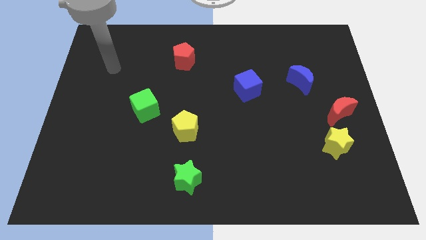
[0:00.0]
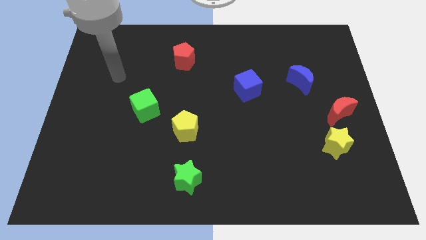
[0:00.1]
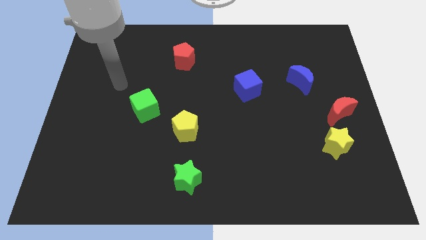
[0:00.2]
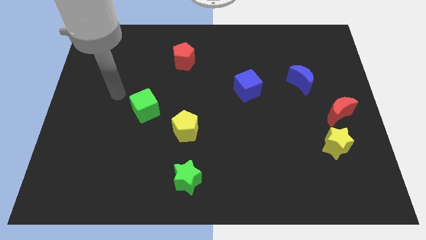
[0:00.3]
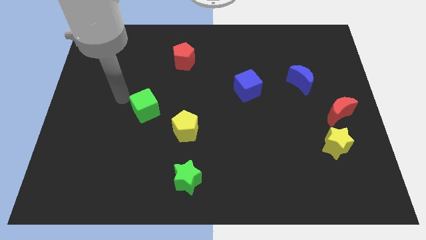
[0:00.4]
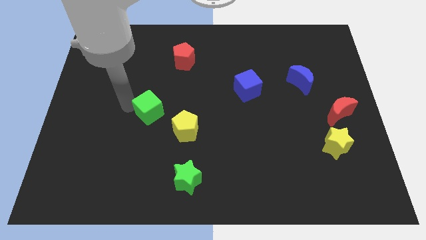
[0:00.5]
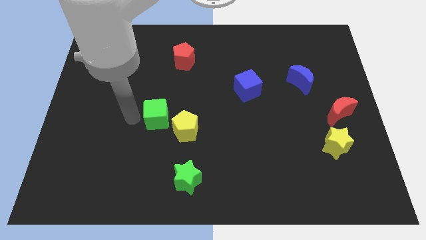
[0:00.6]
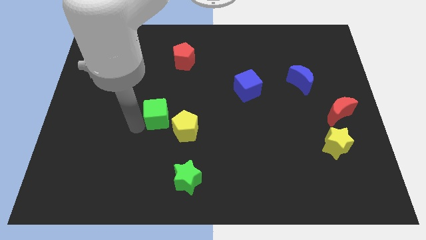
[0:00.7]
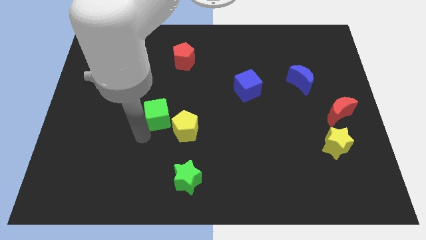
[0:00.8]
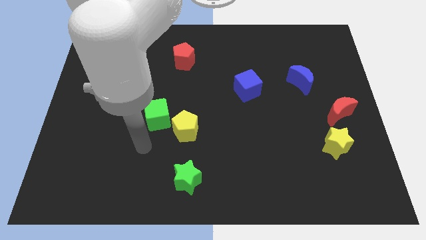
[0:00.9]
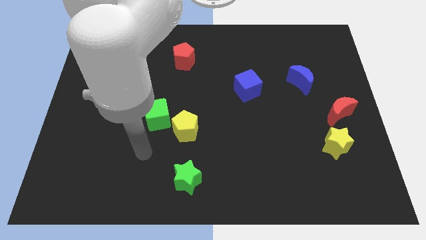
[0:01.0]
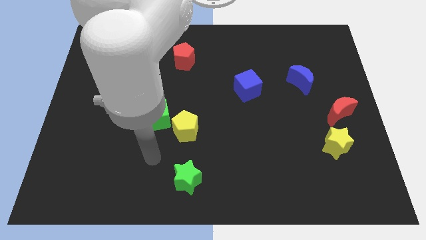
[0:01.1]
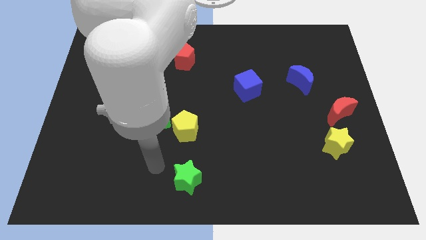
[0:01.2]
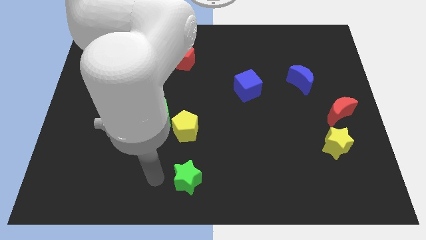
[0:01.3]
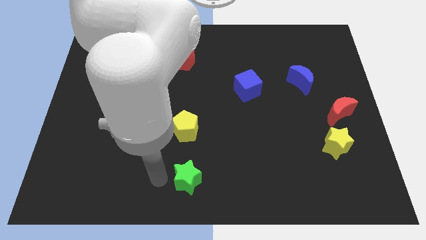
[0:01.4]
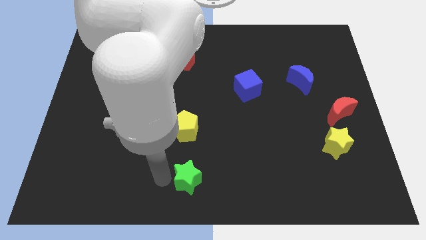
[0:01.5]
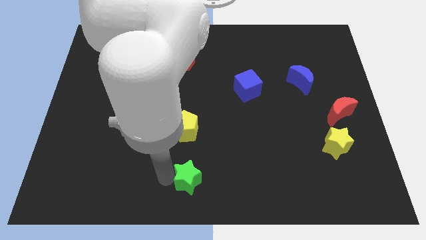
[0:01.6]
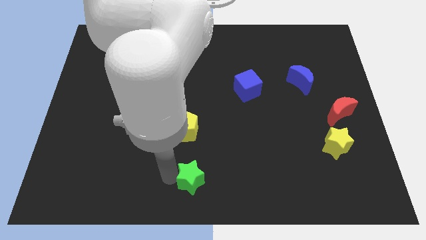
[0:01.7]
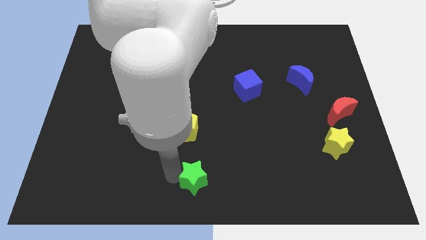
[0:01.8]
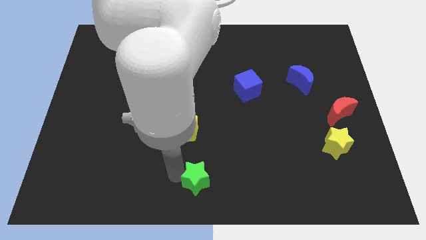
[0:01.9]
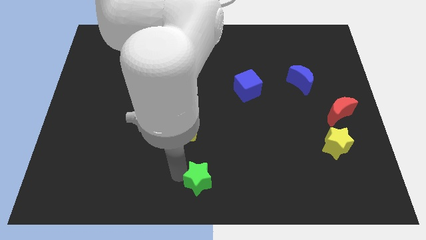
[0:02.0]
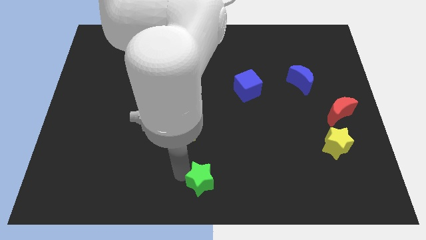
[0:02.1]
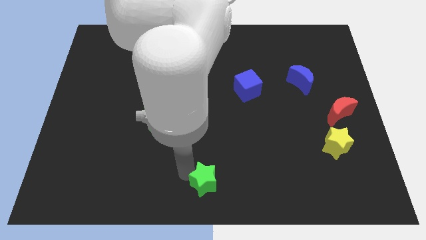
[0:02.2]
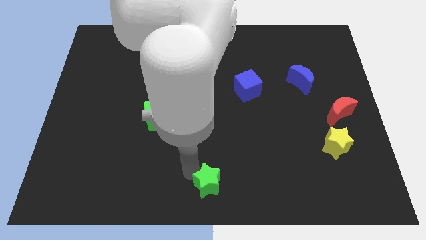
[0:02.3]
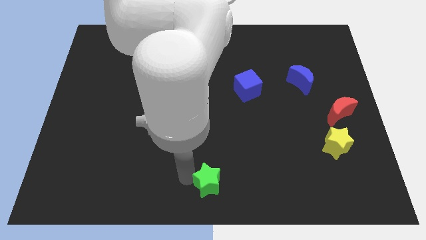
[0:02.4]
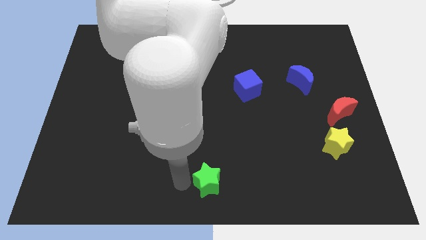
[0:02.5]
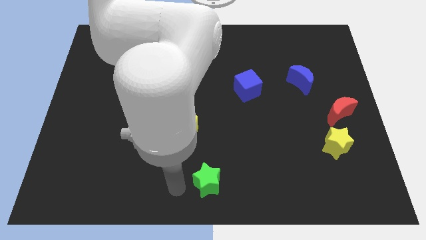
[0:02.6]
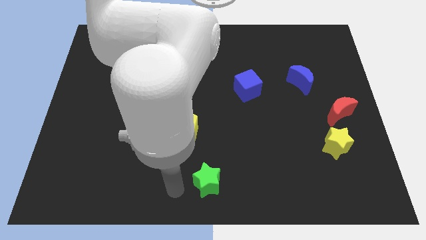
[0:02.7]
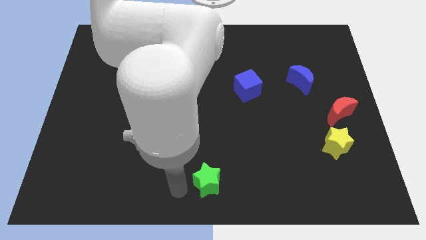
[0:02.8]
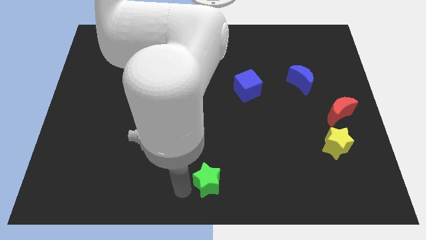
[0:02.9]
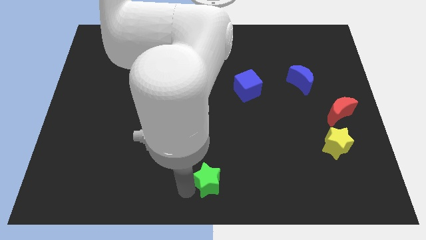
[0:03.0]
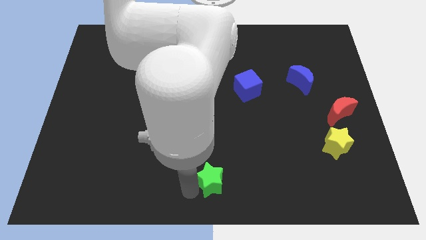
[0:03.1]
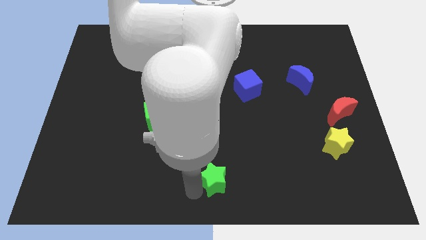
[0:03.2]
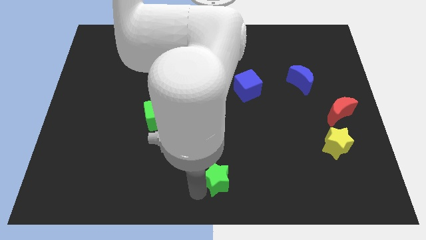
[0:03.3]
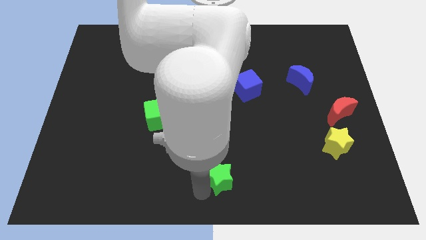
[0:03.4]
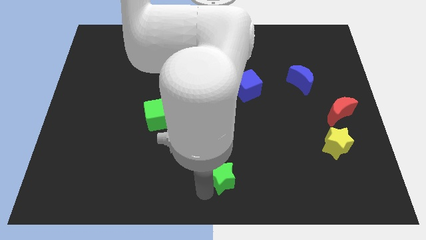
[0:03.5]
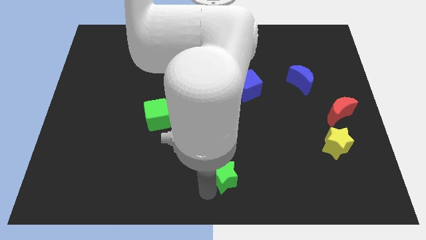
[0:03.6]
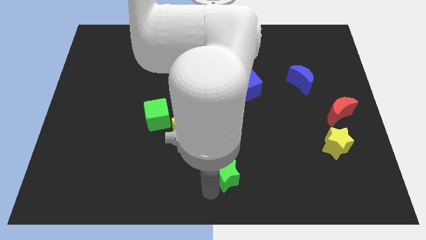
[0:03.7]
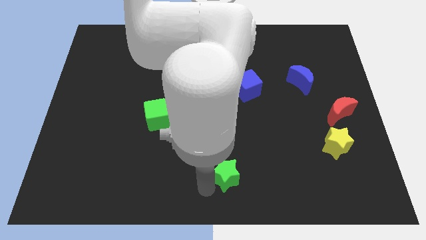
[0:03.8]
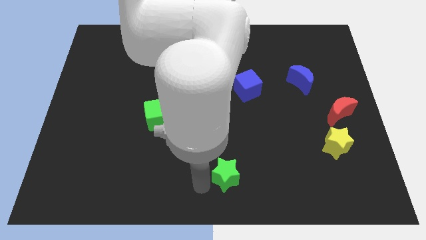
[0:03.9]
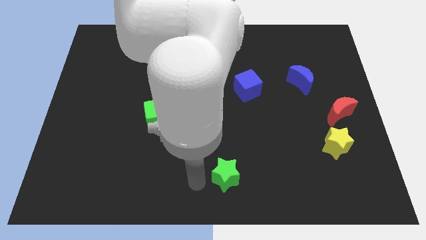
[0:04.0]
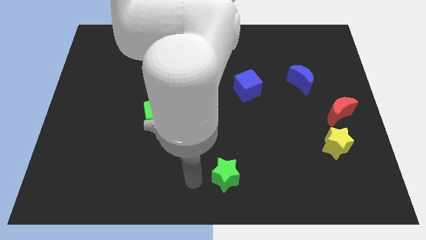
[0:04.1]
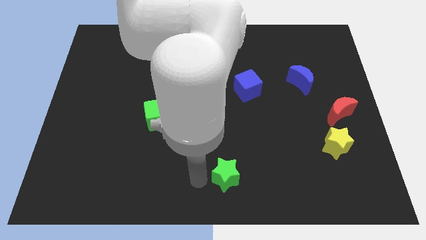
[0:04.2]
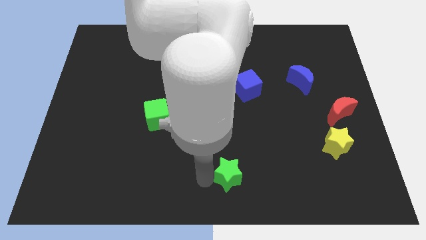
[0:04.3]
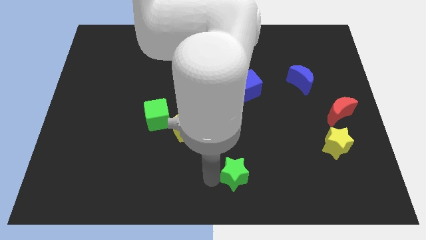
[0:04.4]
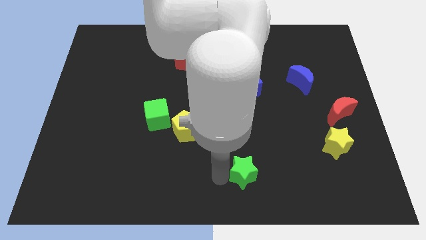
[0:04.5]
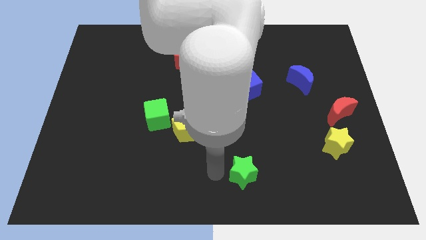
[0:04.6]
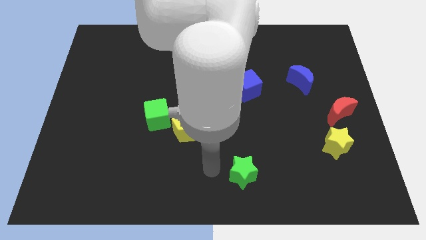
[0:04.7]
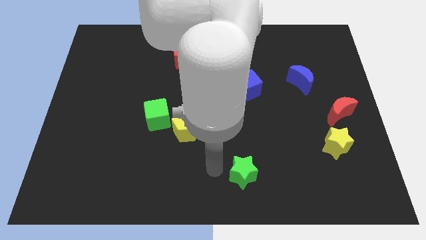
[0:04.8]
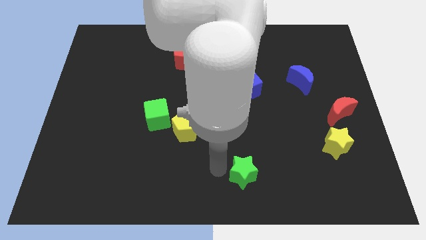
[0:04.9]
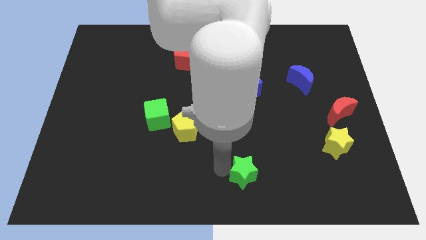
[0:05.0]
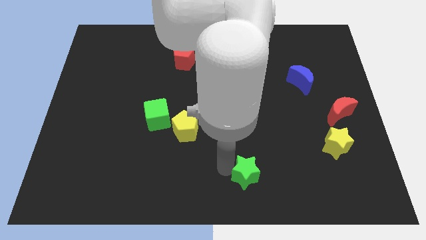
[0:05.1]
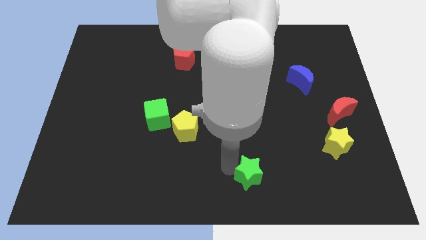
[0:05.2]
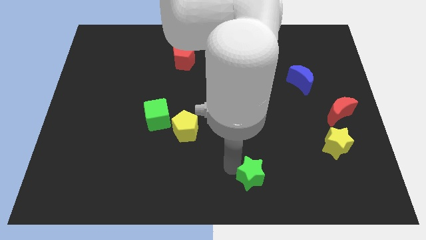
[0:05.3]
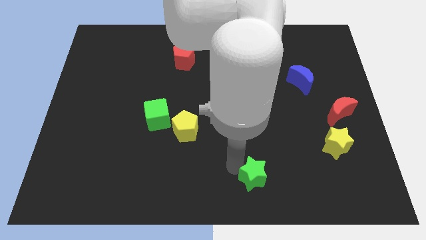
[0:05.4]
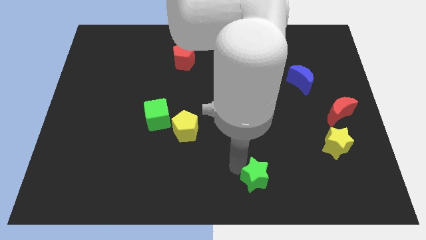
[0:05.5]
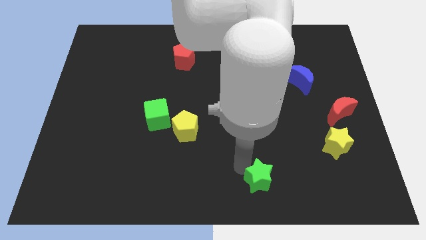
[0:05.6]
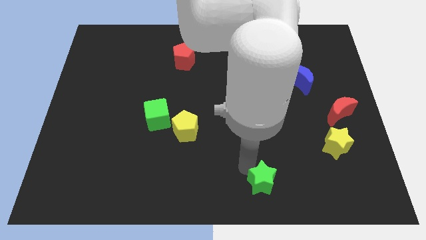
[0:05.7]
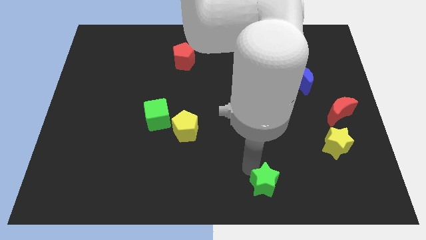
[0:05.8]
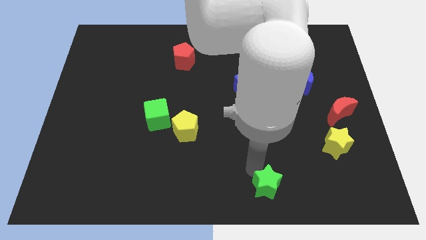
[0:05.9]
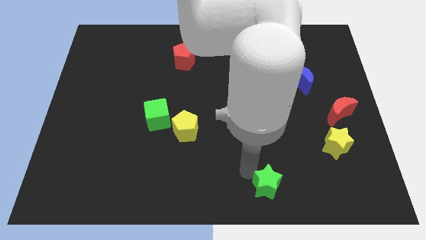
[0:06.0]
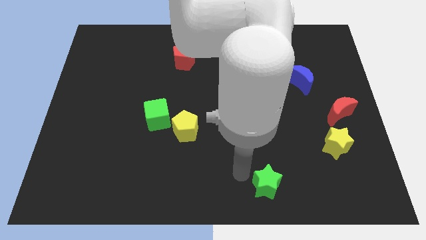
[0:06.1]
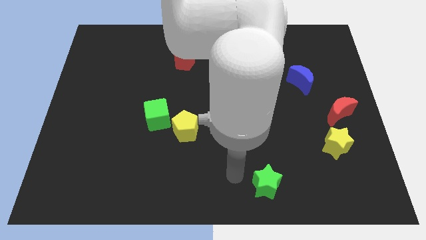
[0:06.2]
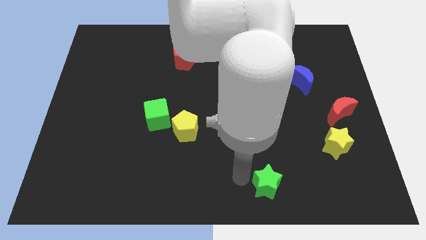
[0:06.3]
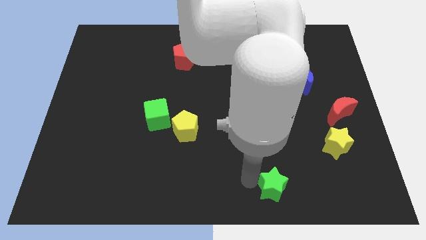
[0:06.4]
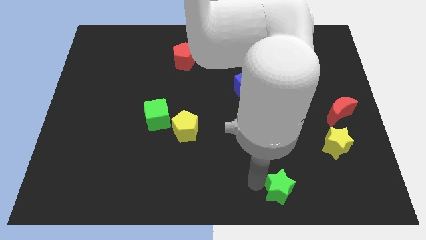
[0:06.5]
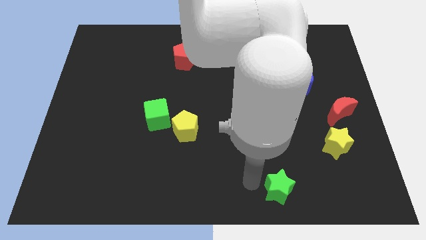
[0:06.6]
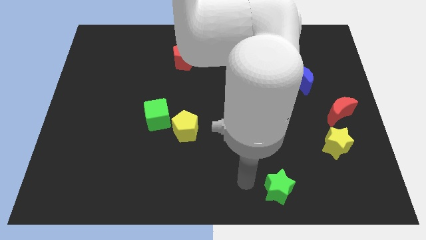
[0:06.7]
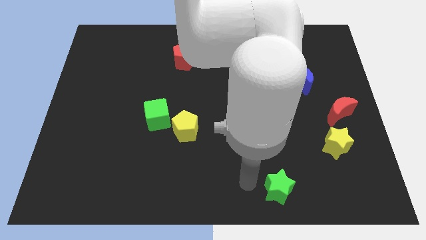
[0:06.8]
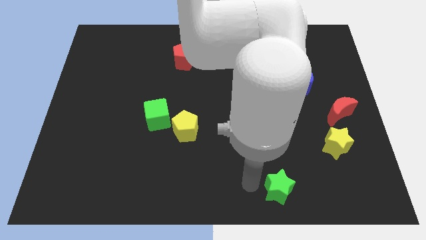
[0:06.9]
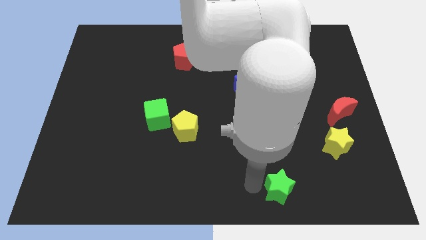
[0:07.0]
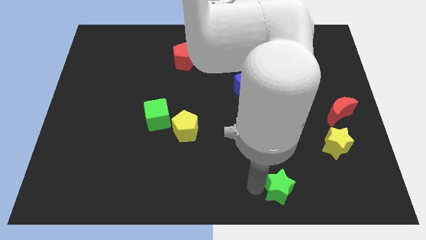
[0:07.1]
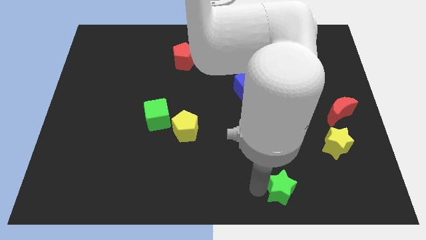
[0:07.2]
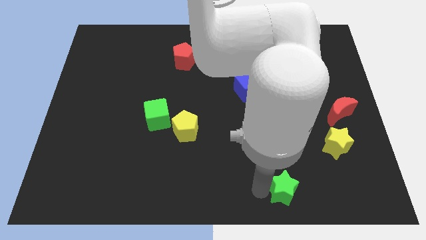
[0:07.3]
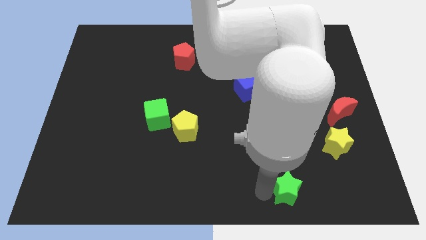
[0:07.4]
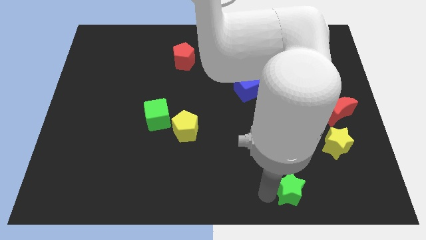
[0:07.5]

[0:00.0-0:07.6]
push the green star to the right

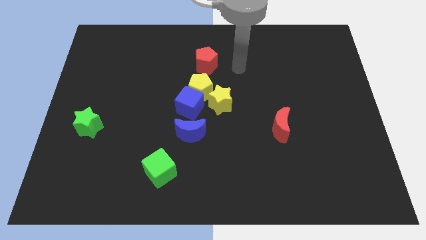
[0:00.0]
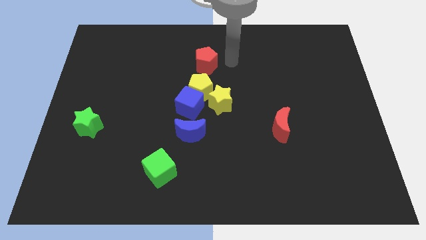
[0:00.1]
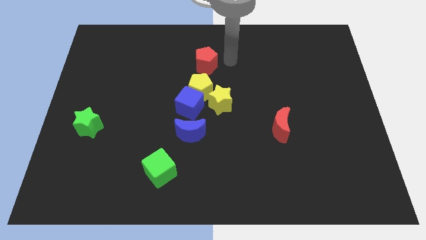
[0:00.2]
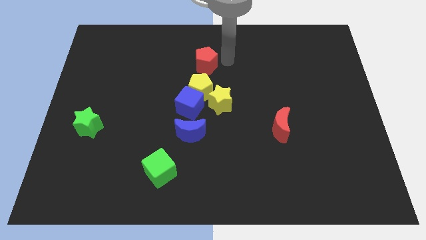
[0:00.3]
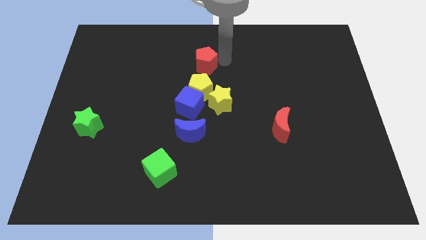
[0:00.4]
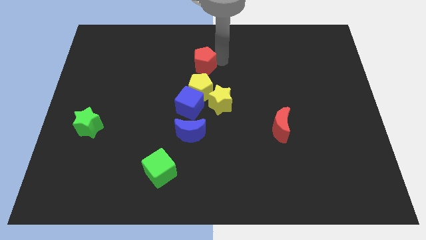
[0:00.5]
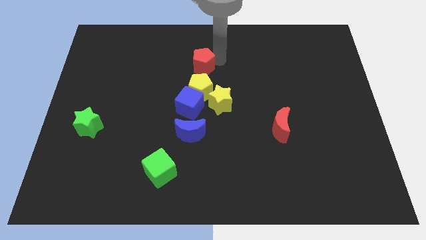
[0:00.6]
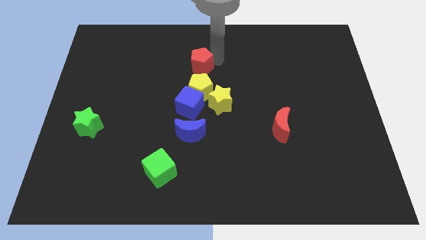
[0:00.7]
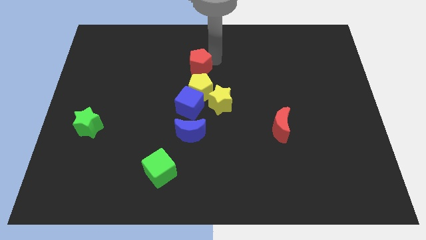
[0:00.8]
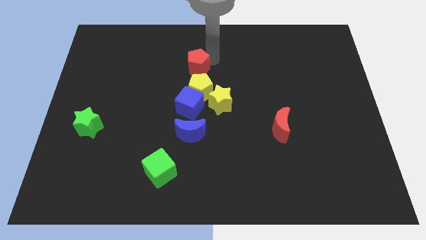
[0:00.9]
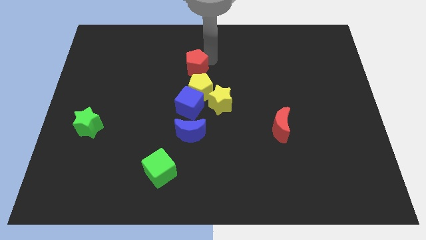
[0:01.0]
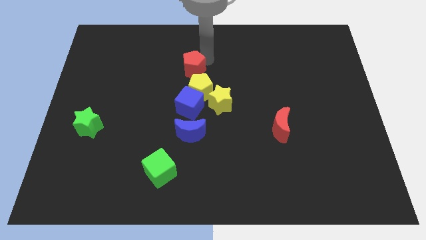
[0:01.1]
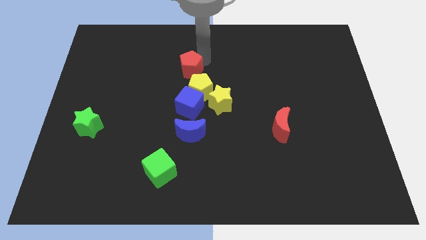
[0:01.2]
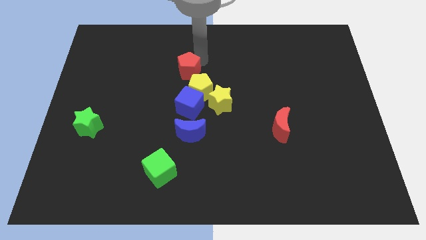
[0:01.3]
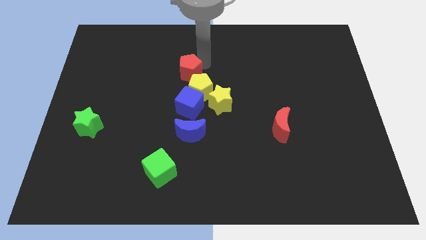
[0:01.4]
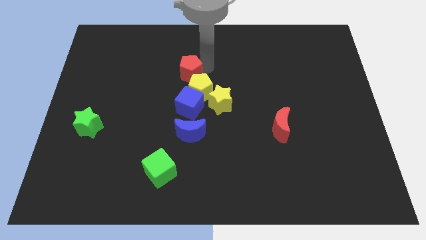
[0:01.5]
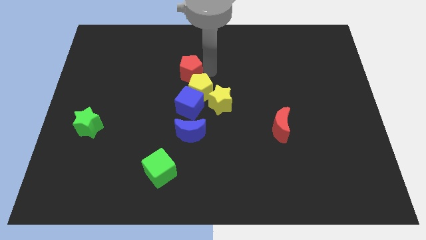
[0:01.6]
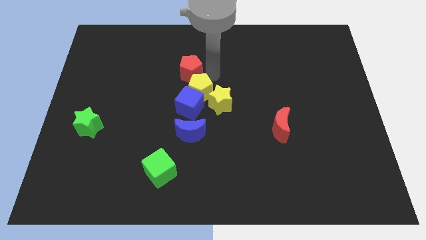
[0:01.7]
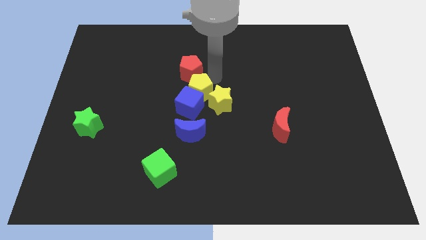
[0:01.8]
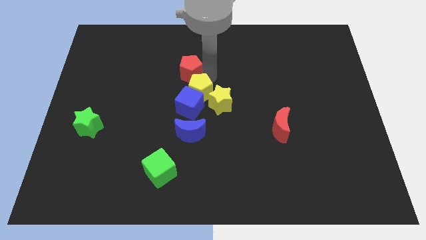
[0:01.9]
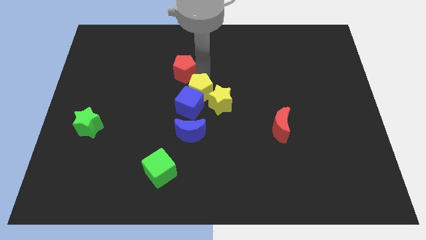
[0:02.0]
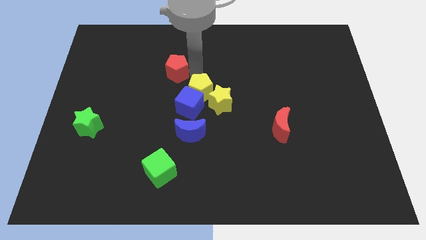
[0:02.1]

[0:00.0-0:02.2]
move the red pentagon left a little bit
